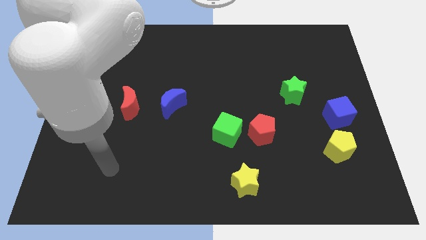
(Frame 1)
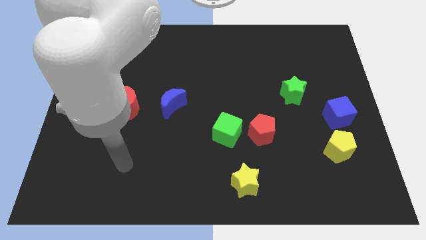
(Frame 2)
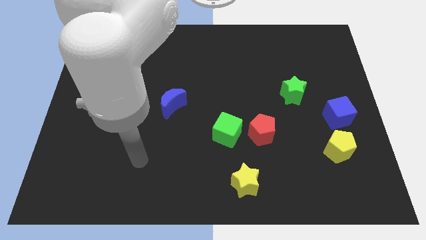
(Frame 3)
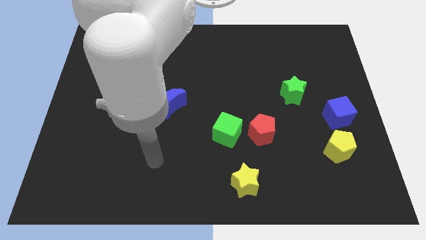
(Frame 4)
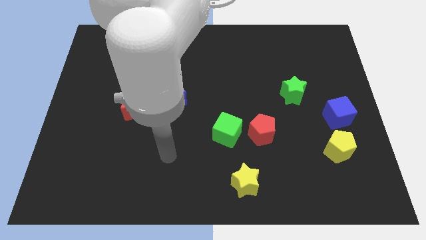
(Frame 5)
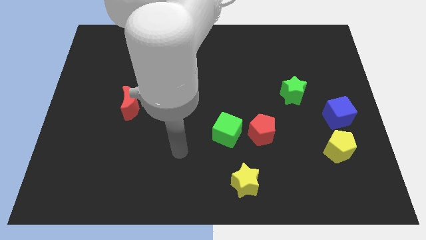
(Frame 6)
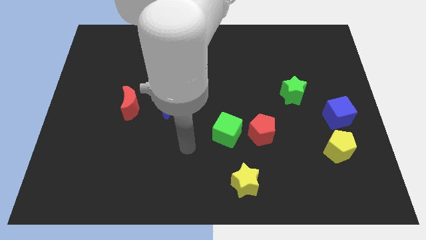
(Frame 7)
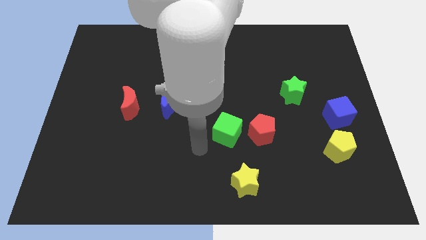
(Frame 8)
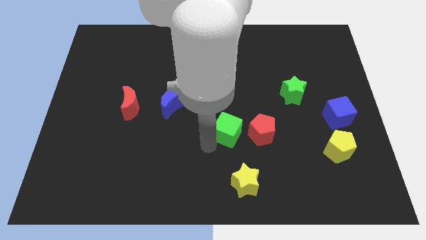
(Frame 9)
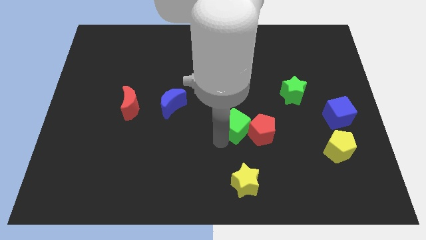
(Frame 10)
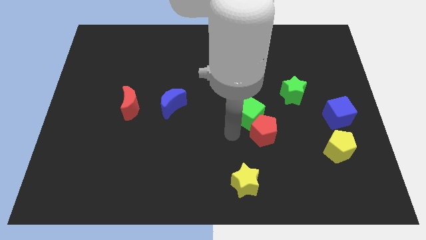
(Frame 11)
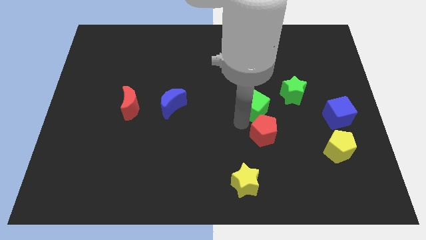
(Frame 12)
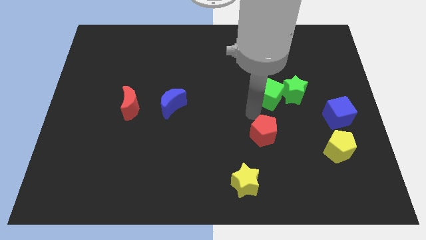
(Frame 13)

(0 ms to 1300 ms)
move the red pentagon away from the green cube

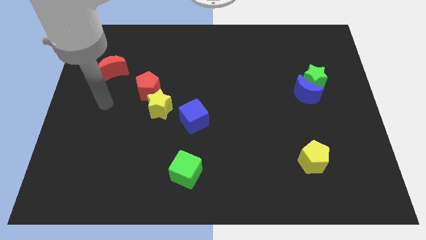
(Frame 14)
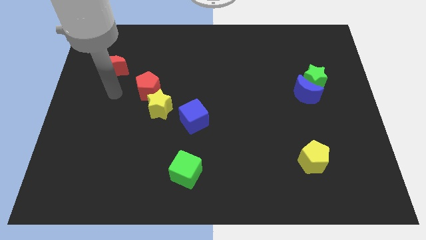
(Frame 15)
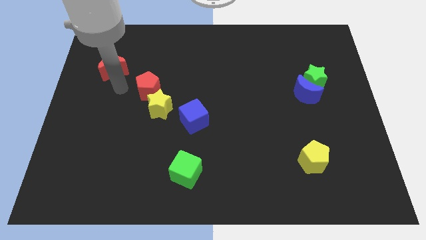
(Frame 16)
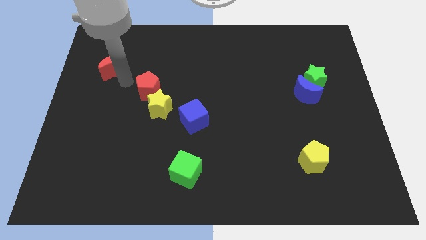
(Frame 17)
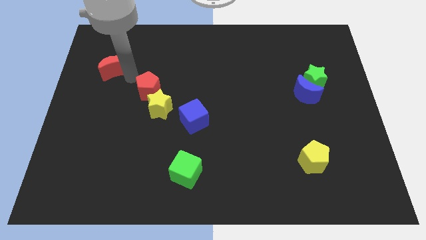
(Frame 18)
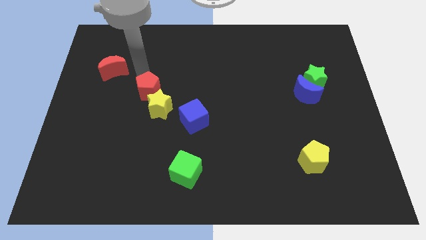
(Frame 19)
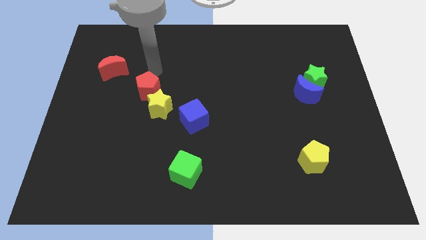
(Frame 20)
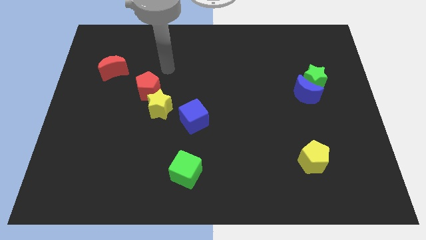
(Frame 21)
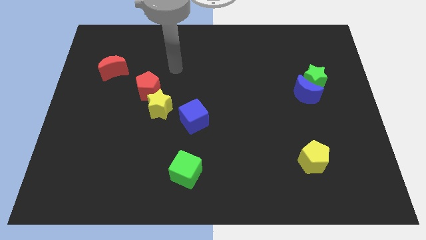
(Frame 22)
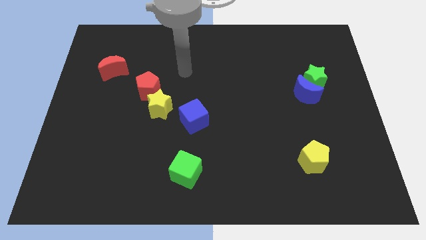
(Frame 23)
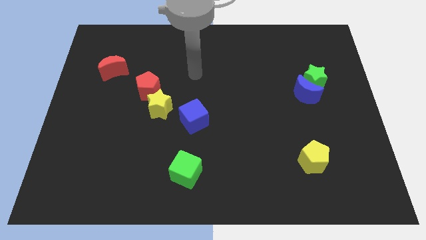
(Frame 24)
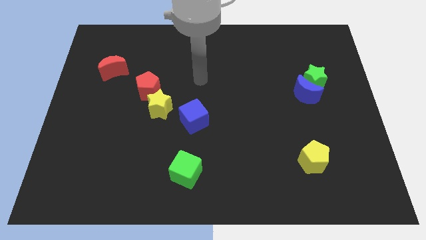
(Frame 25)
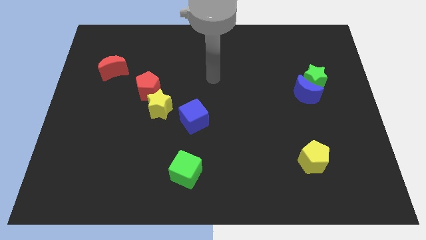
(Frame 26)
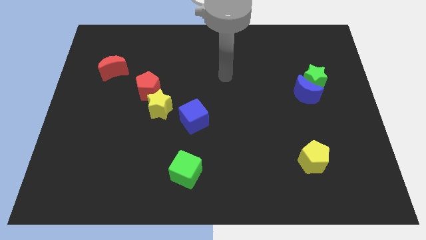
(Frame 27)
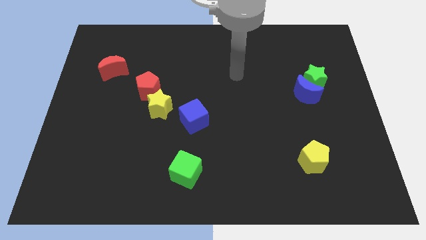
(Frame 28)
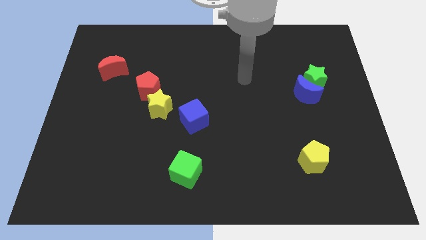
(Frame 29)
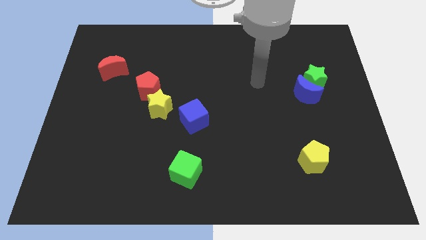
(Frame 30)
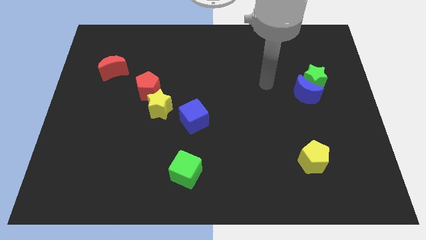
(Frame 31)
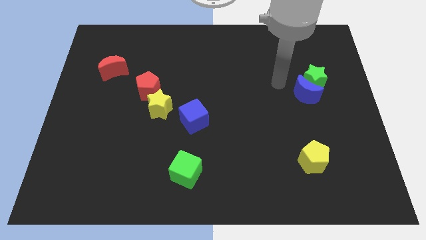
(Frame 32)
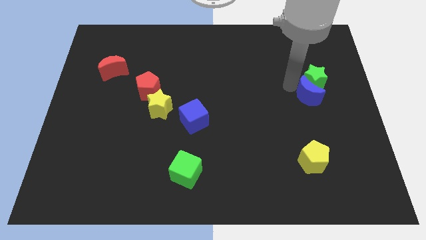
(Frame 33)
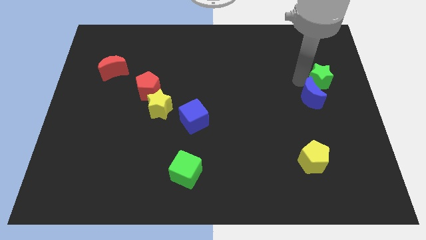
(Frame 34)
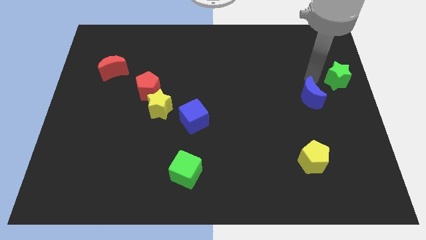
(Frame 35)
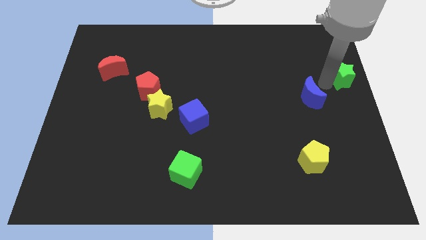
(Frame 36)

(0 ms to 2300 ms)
pull the blue moon apart from the green star

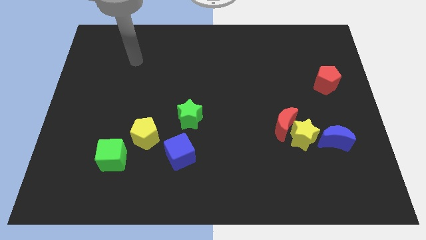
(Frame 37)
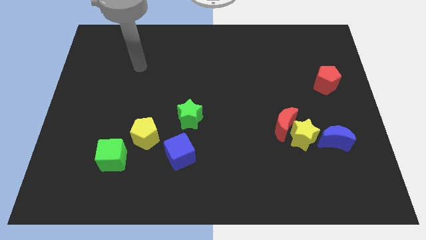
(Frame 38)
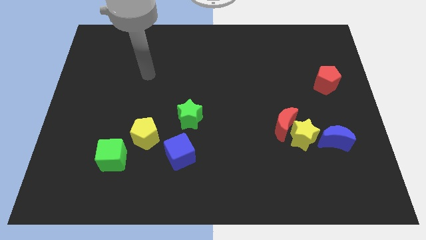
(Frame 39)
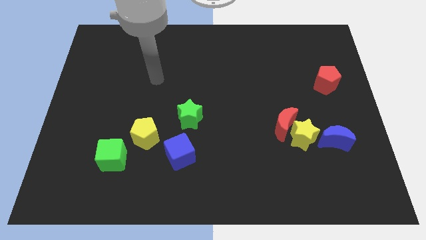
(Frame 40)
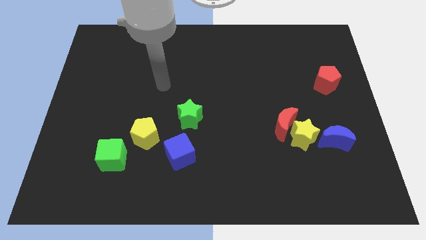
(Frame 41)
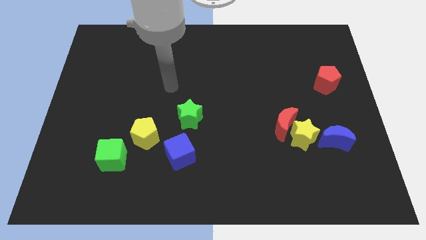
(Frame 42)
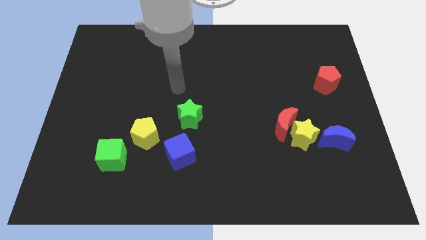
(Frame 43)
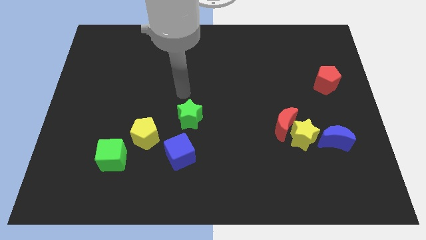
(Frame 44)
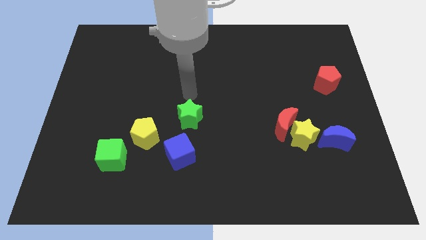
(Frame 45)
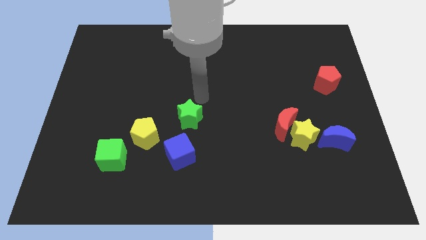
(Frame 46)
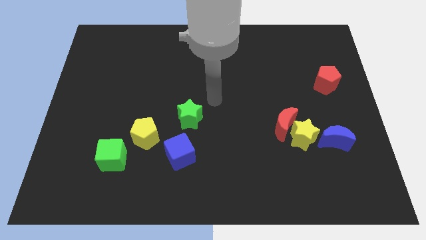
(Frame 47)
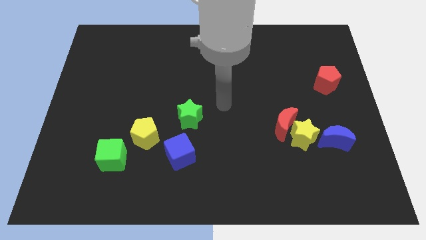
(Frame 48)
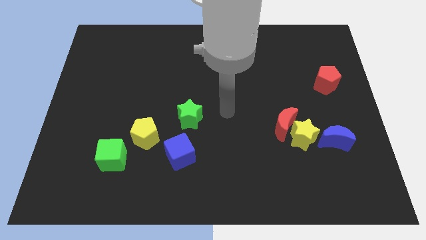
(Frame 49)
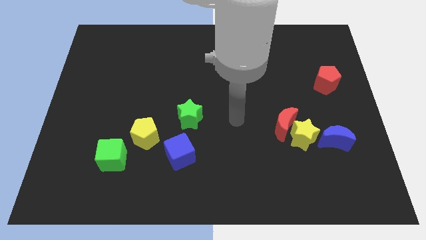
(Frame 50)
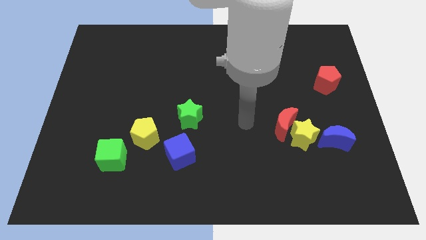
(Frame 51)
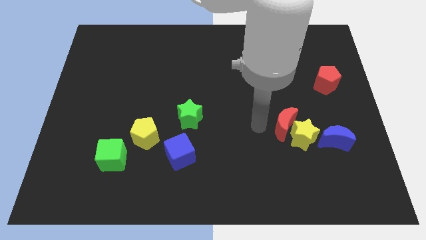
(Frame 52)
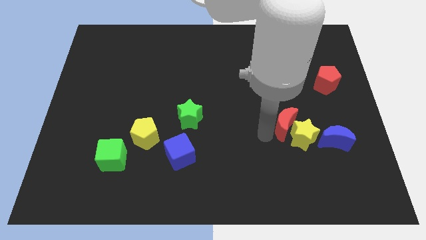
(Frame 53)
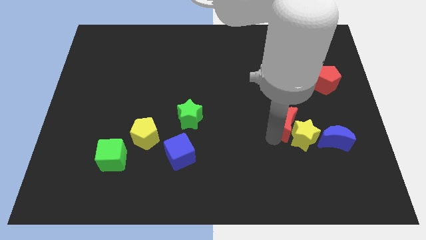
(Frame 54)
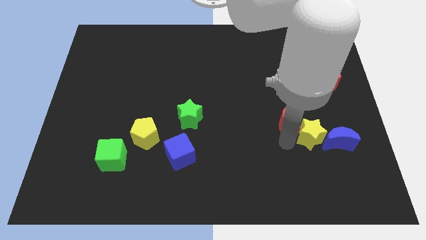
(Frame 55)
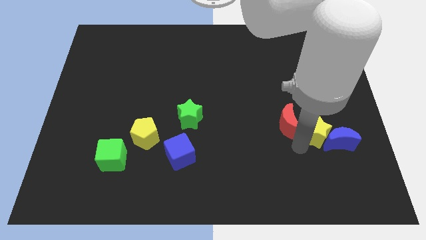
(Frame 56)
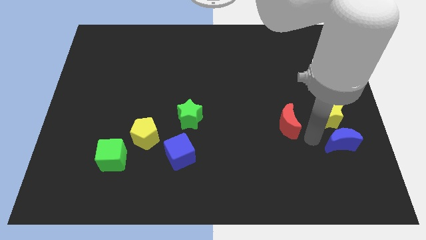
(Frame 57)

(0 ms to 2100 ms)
pull the red moon apart from the yellow star

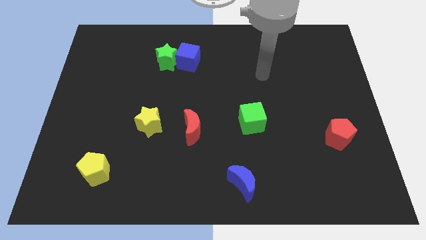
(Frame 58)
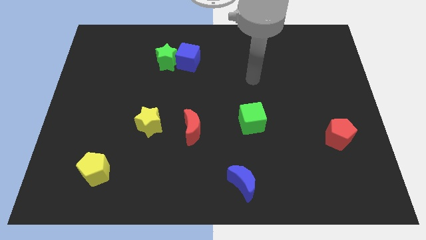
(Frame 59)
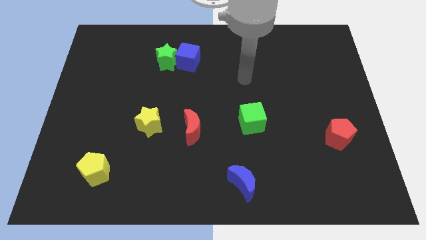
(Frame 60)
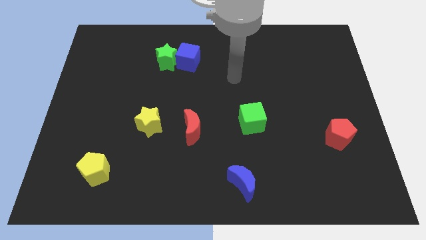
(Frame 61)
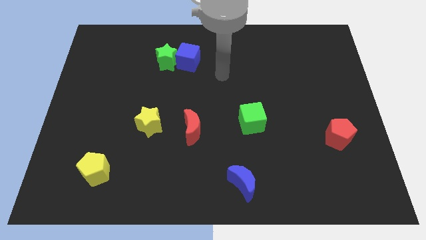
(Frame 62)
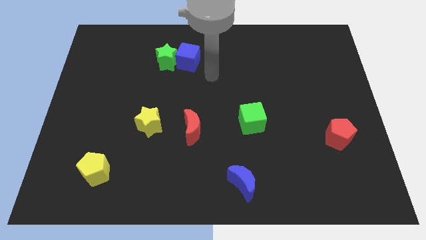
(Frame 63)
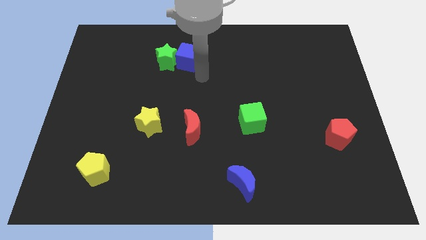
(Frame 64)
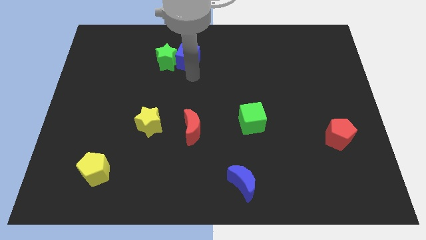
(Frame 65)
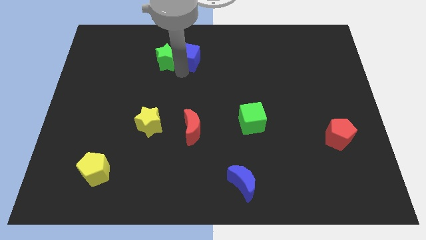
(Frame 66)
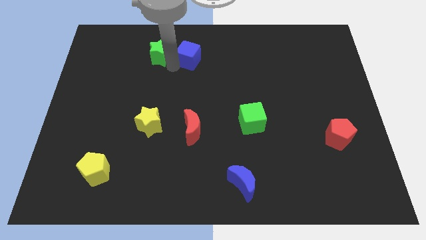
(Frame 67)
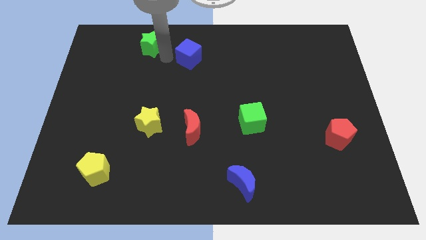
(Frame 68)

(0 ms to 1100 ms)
separate the blue cube from the green star

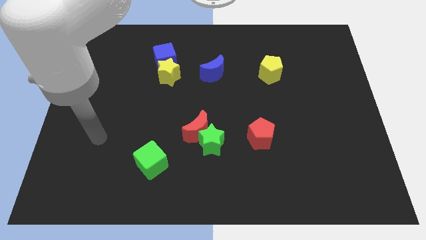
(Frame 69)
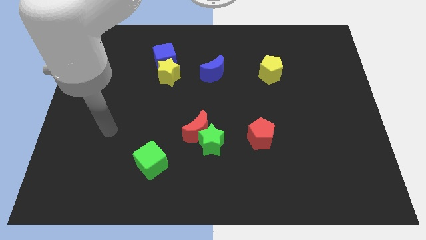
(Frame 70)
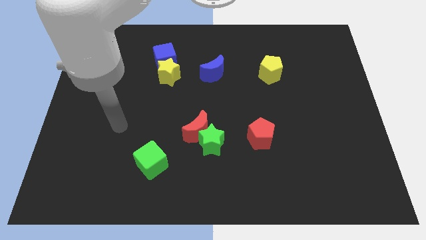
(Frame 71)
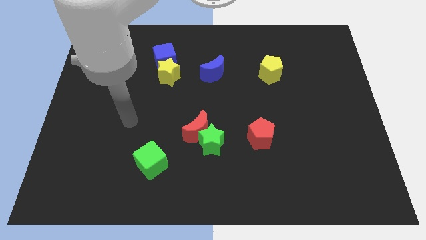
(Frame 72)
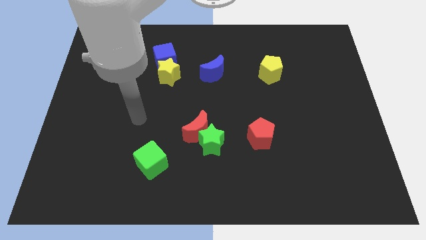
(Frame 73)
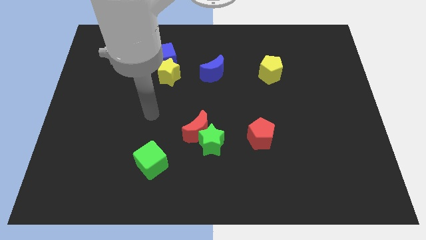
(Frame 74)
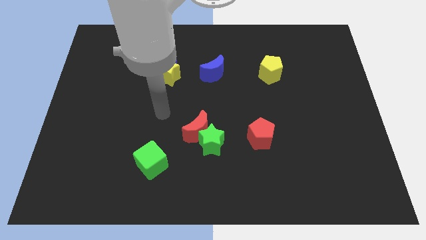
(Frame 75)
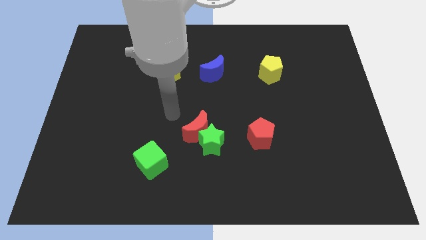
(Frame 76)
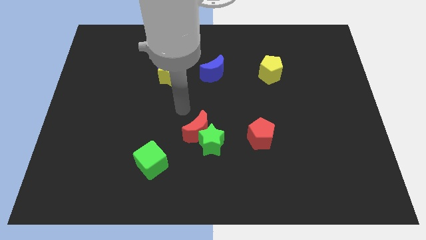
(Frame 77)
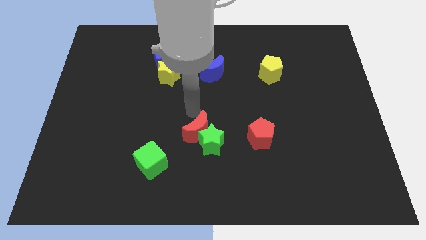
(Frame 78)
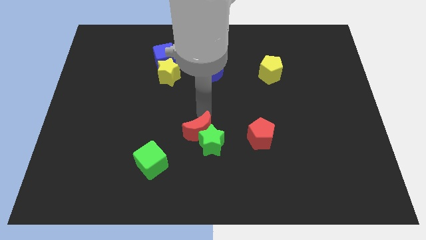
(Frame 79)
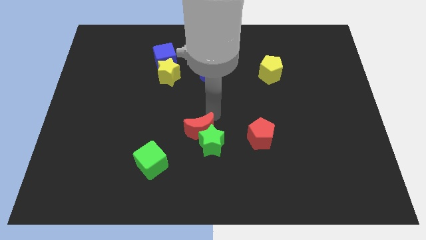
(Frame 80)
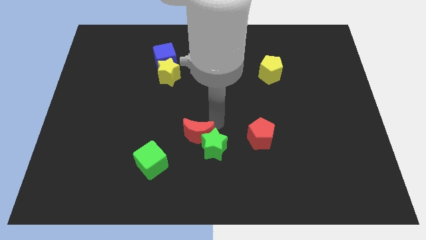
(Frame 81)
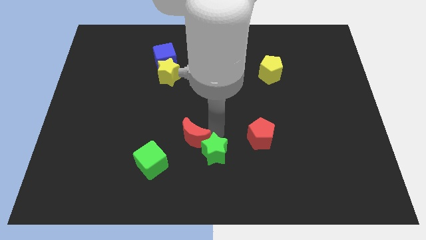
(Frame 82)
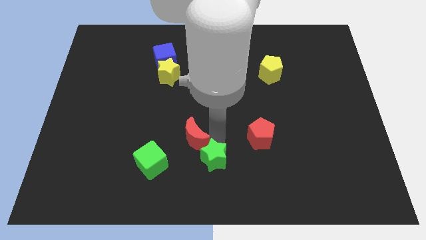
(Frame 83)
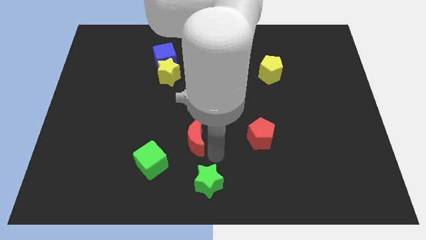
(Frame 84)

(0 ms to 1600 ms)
separate the red moon from the green star

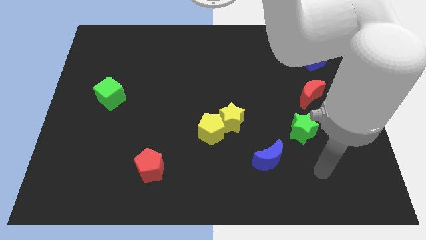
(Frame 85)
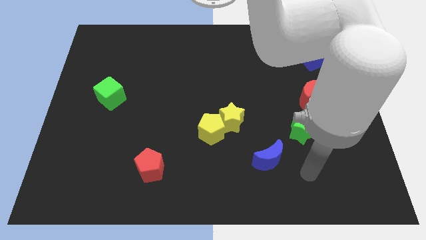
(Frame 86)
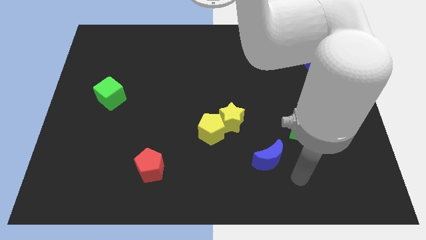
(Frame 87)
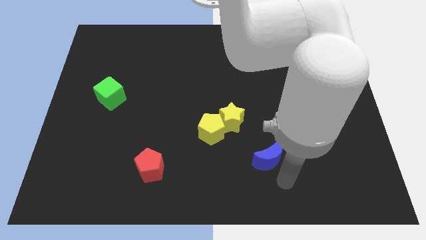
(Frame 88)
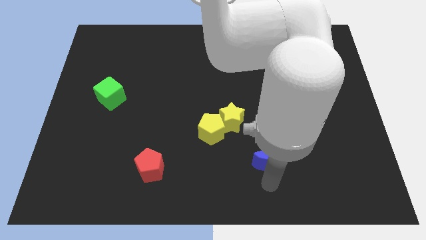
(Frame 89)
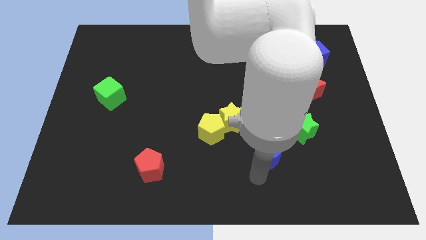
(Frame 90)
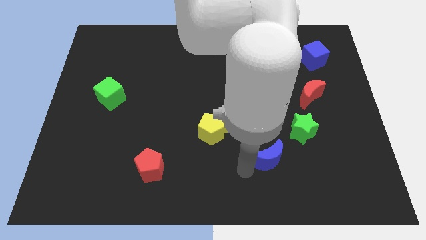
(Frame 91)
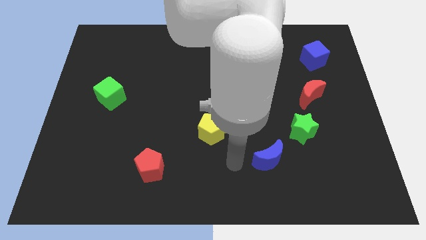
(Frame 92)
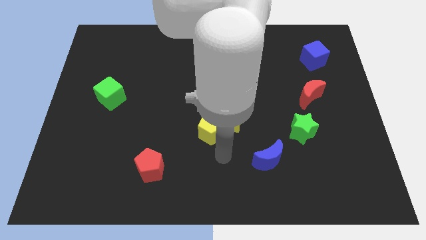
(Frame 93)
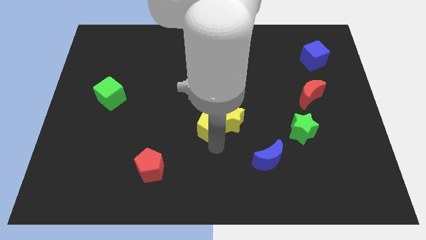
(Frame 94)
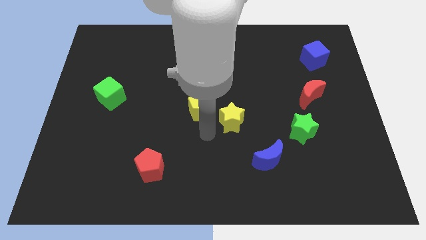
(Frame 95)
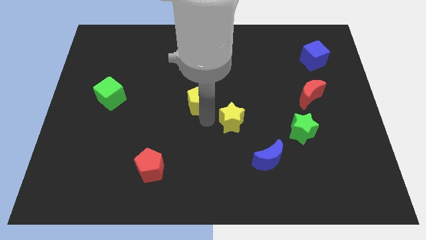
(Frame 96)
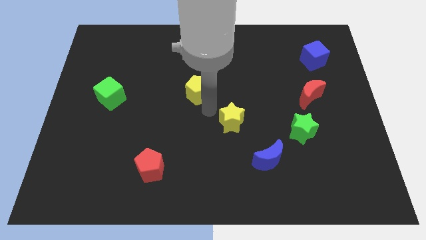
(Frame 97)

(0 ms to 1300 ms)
separate the yellow star from the yellow pentagon
